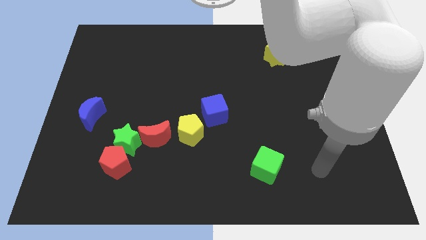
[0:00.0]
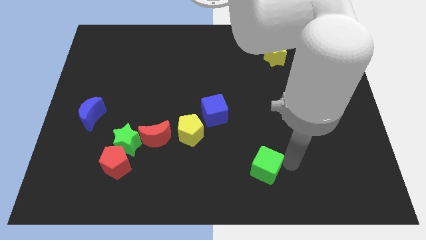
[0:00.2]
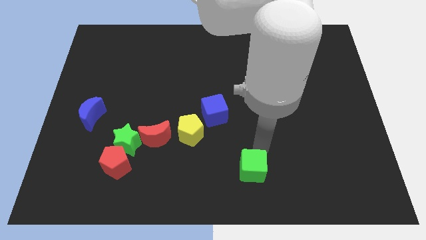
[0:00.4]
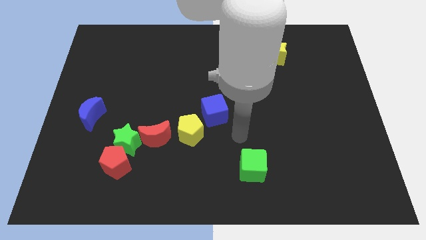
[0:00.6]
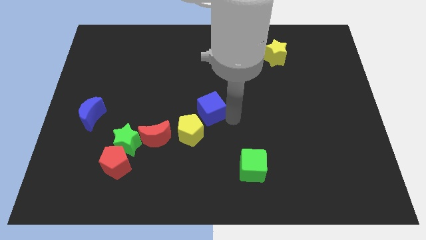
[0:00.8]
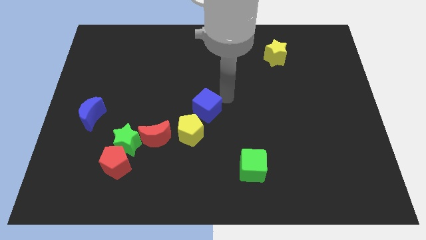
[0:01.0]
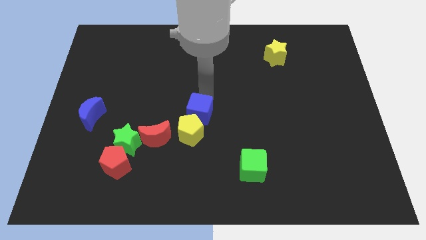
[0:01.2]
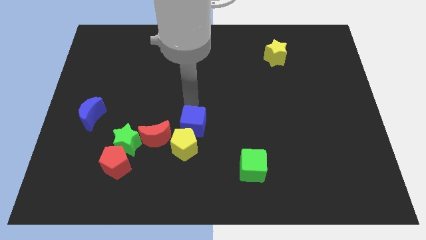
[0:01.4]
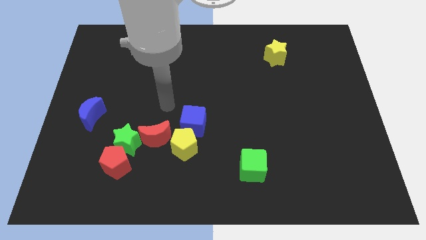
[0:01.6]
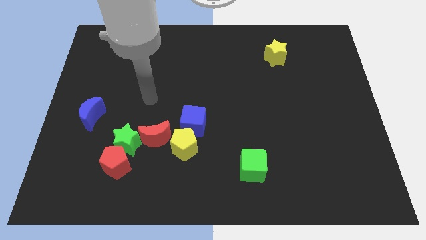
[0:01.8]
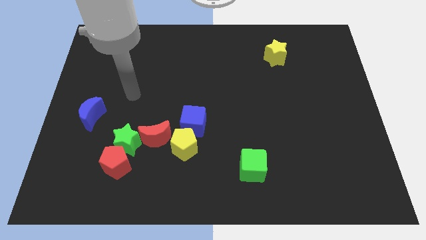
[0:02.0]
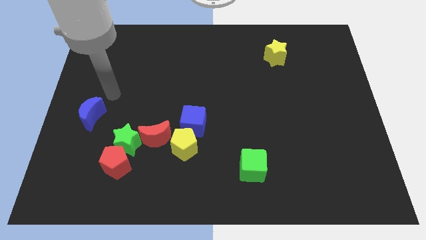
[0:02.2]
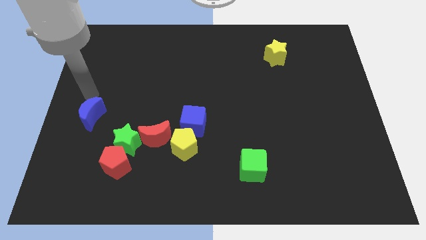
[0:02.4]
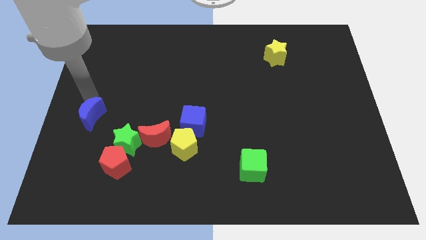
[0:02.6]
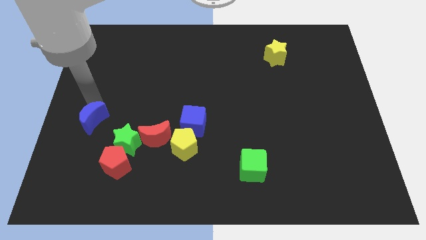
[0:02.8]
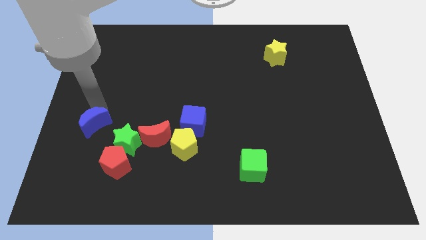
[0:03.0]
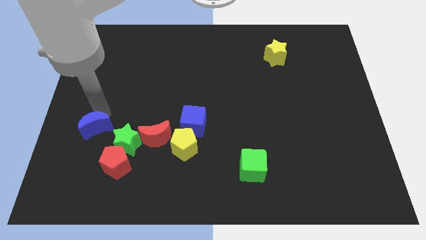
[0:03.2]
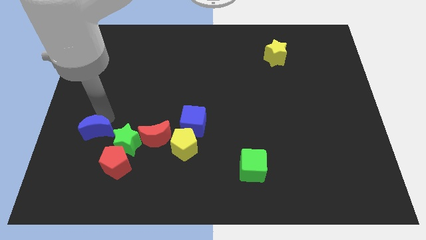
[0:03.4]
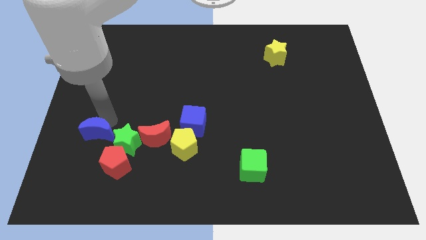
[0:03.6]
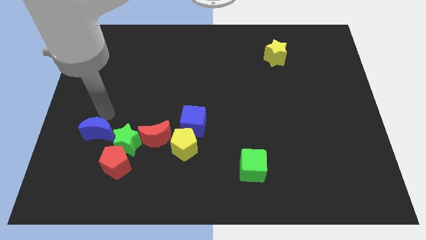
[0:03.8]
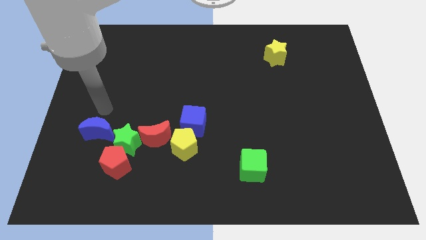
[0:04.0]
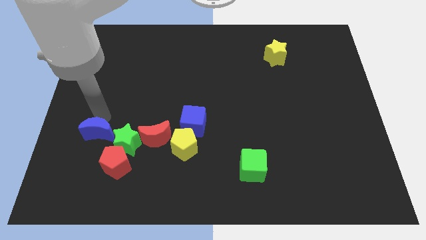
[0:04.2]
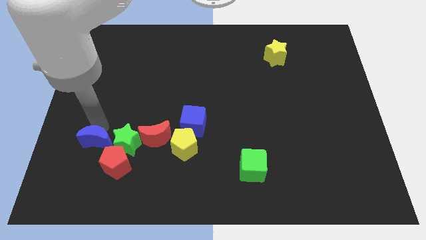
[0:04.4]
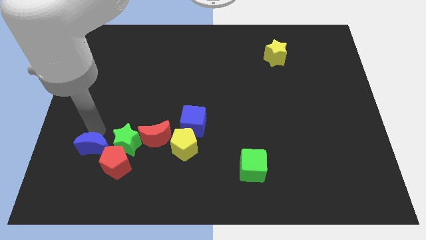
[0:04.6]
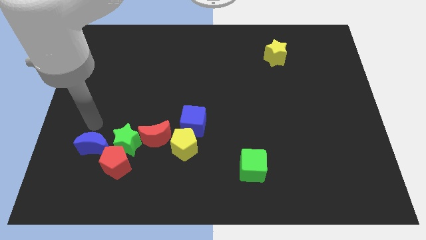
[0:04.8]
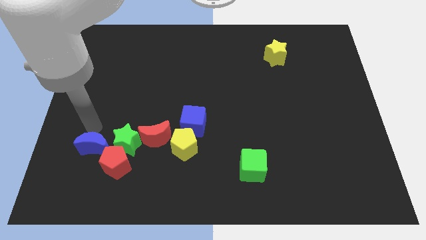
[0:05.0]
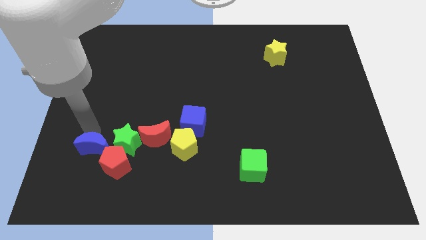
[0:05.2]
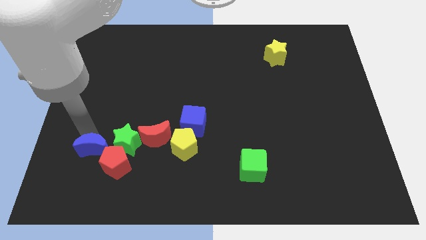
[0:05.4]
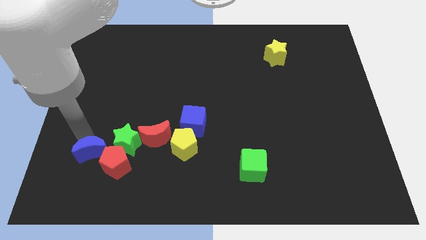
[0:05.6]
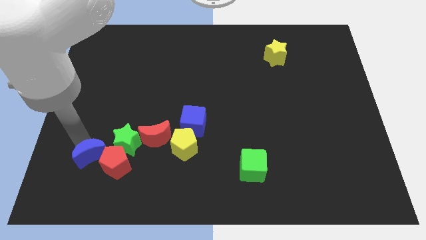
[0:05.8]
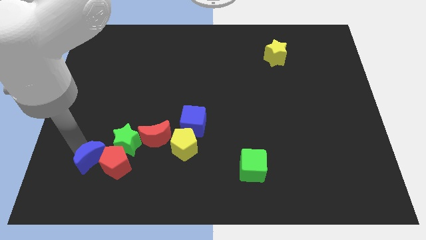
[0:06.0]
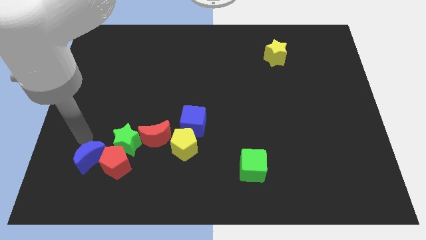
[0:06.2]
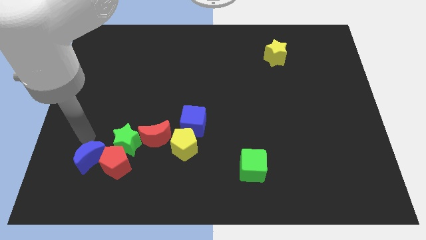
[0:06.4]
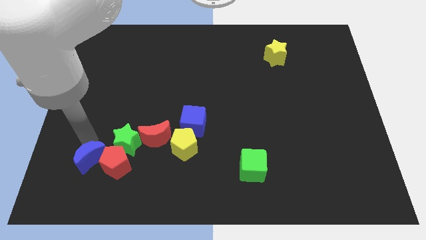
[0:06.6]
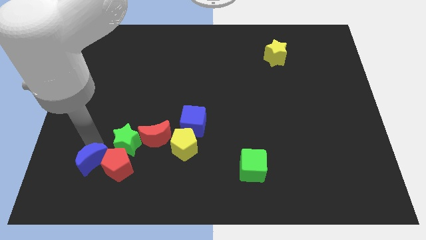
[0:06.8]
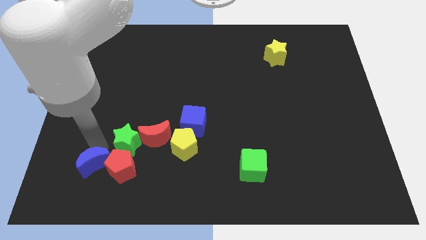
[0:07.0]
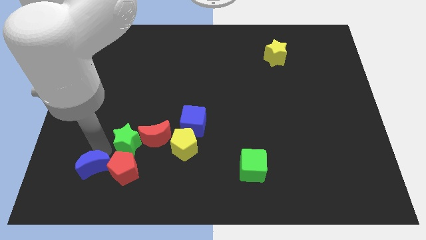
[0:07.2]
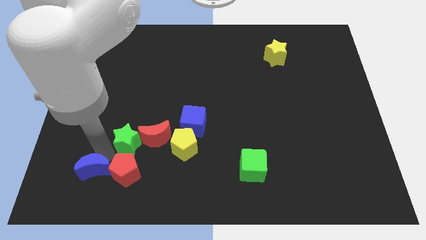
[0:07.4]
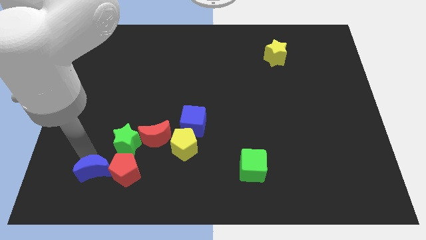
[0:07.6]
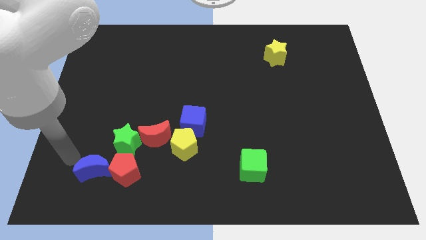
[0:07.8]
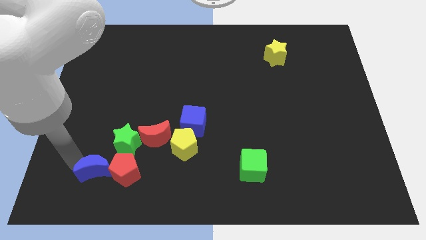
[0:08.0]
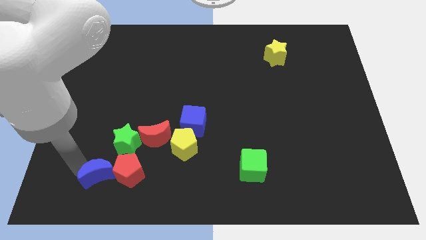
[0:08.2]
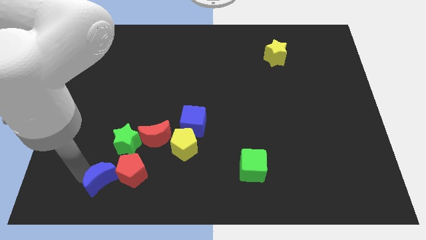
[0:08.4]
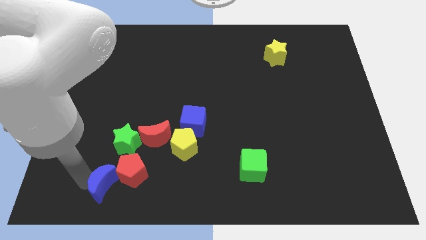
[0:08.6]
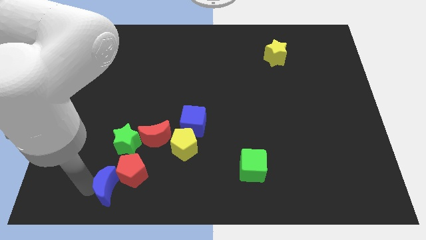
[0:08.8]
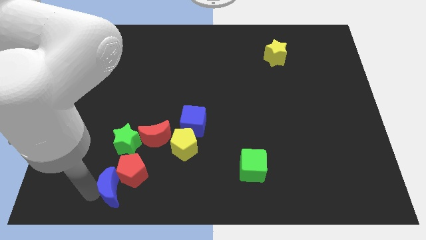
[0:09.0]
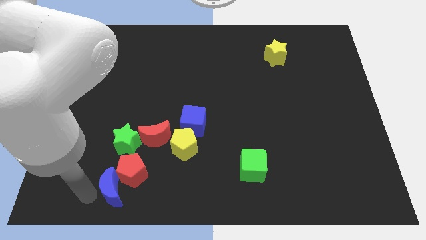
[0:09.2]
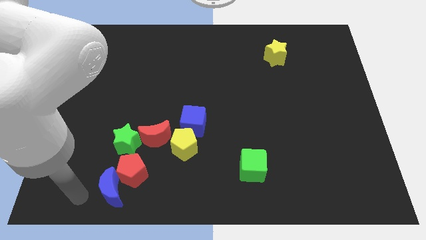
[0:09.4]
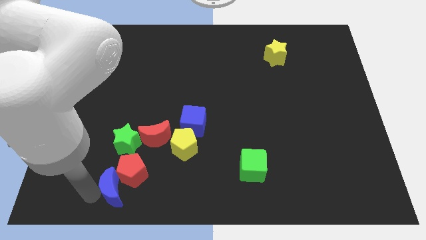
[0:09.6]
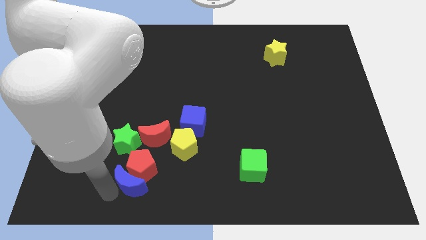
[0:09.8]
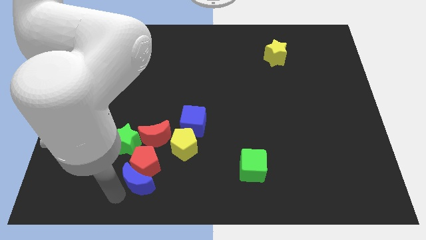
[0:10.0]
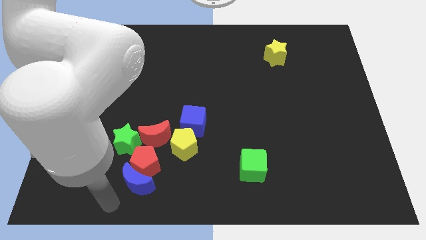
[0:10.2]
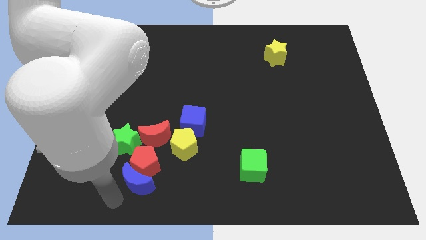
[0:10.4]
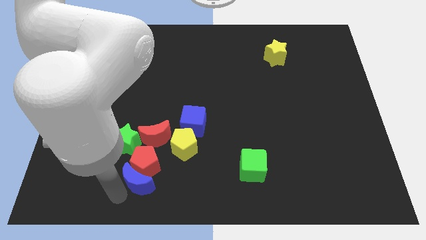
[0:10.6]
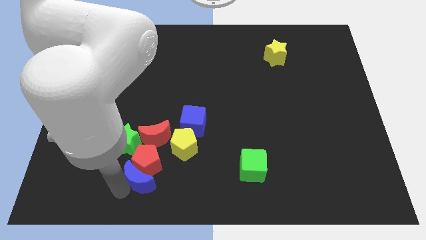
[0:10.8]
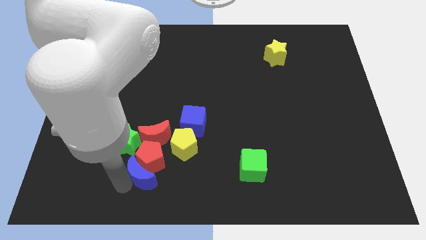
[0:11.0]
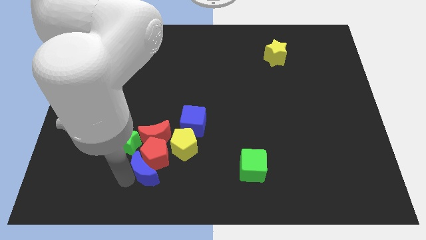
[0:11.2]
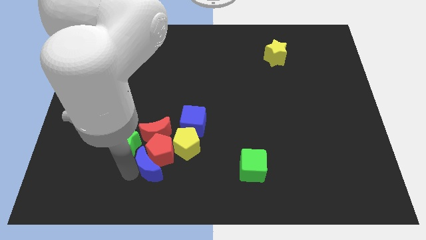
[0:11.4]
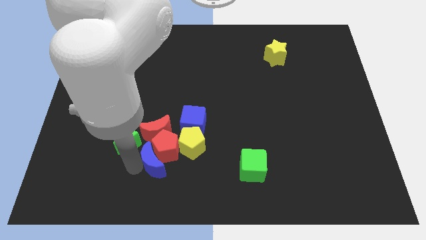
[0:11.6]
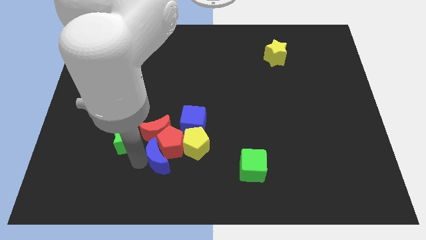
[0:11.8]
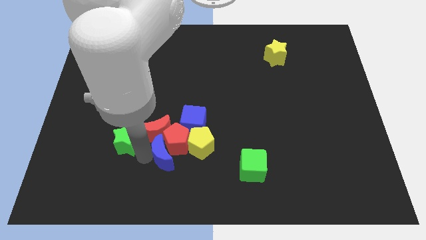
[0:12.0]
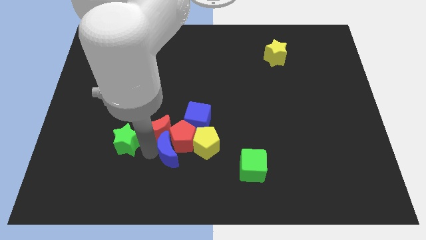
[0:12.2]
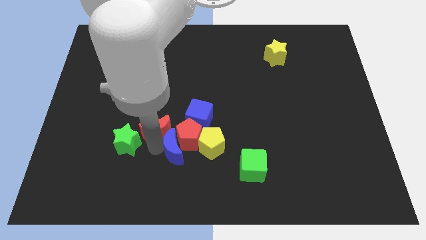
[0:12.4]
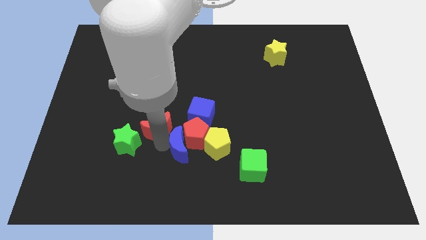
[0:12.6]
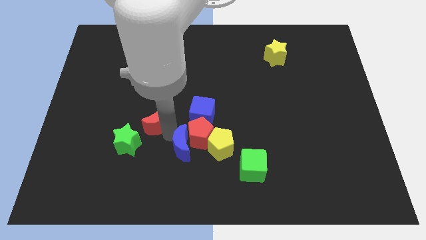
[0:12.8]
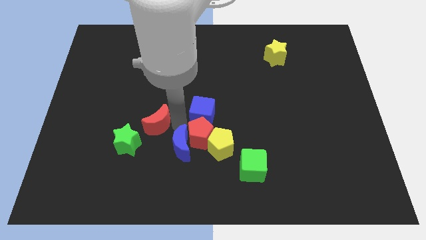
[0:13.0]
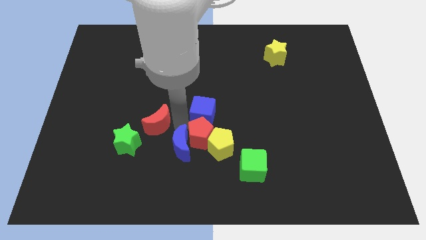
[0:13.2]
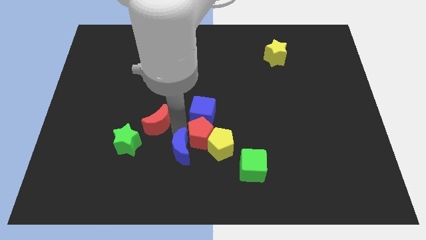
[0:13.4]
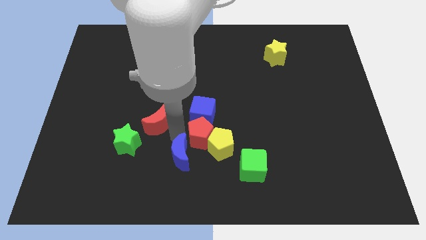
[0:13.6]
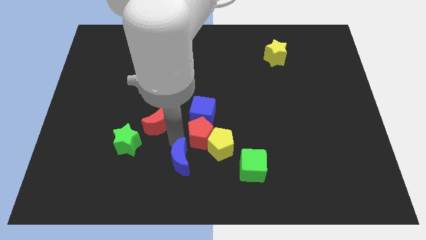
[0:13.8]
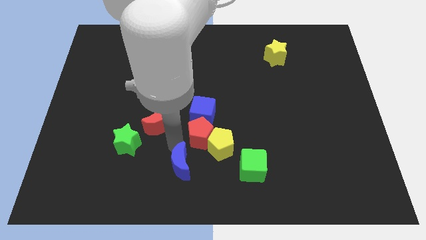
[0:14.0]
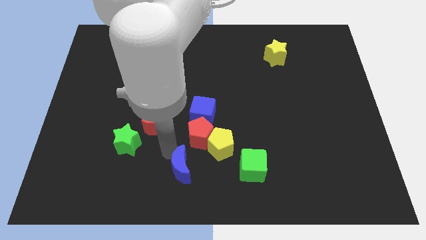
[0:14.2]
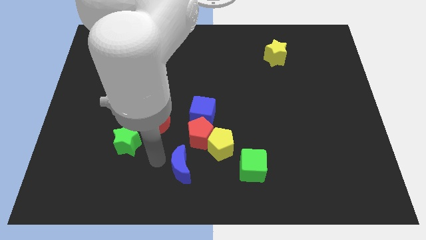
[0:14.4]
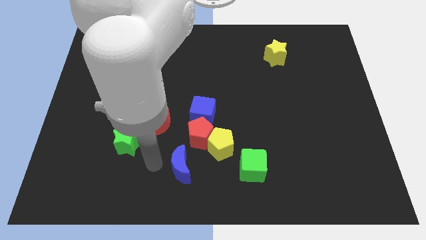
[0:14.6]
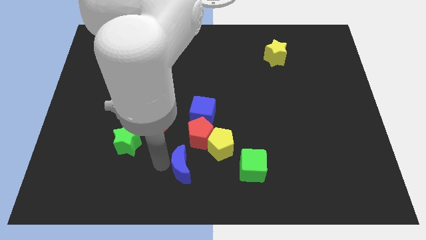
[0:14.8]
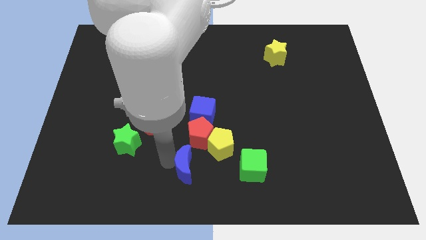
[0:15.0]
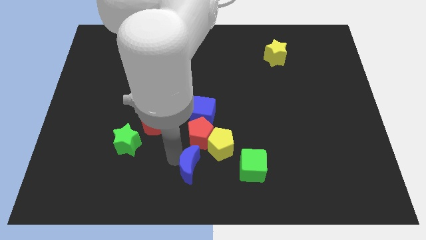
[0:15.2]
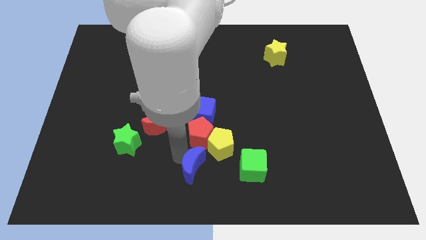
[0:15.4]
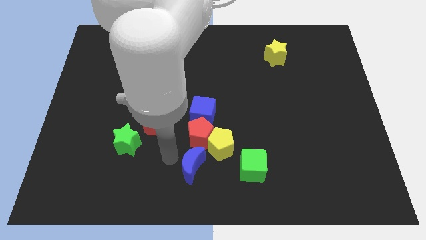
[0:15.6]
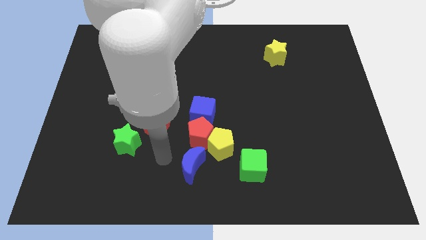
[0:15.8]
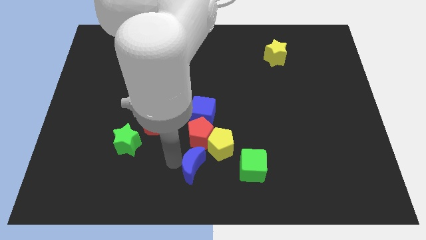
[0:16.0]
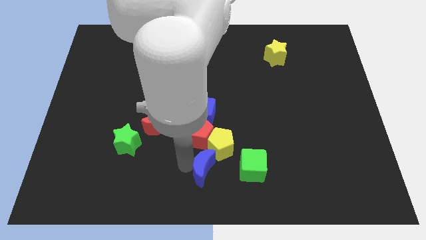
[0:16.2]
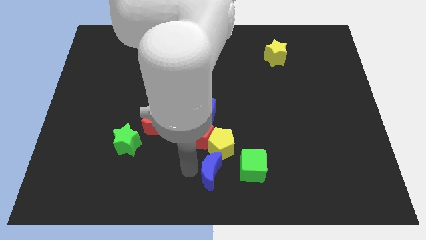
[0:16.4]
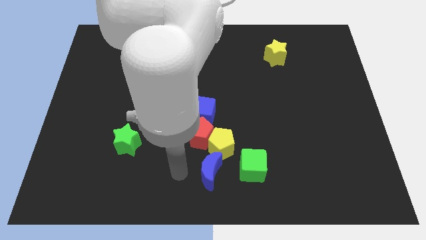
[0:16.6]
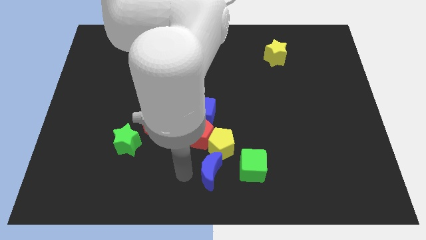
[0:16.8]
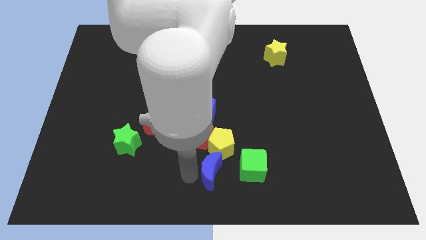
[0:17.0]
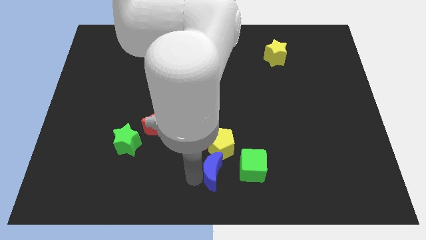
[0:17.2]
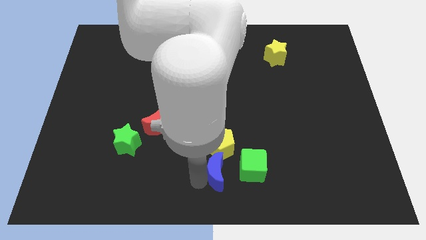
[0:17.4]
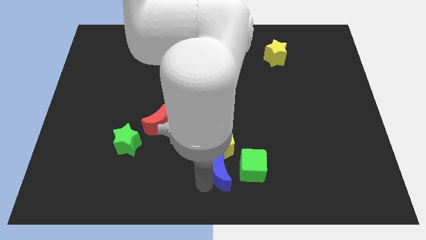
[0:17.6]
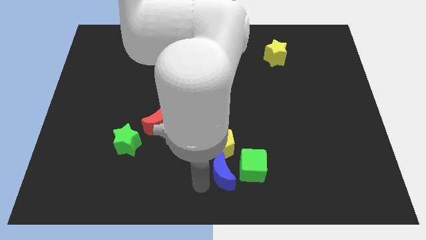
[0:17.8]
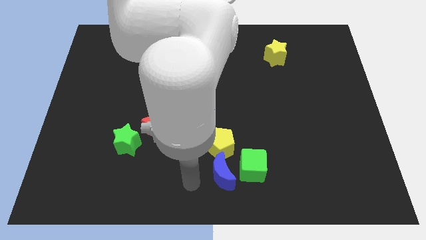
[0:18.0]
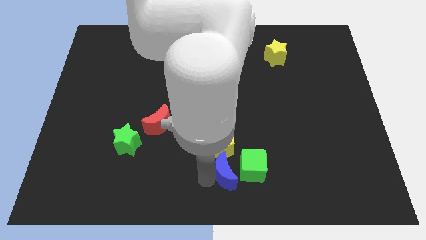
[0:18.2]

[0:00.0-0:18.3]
put the blue moon to the green cube
